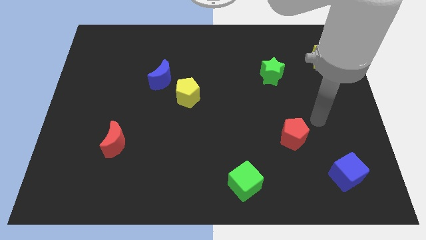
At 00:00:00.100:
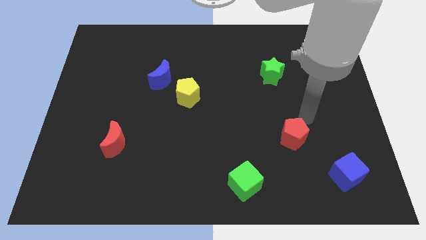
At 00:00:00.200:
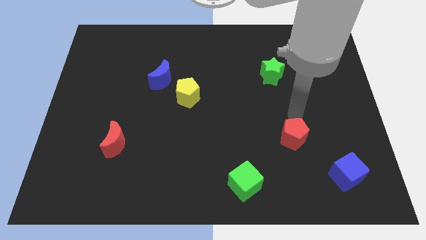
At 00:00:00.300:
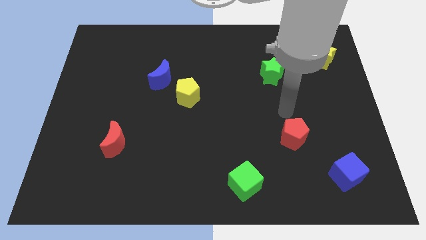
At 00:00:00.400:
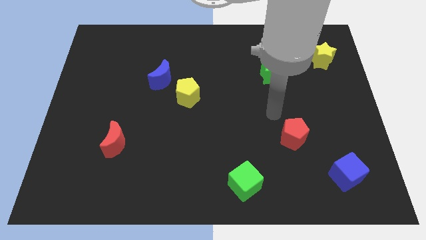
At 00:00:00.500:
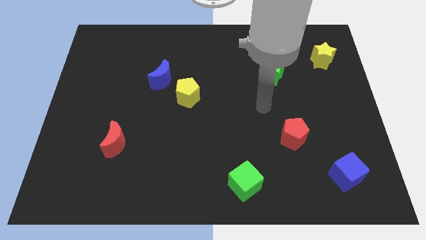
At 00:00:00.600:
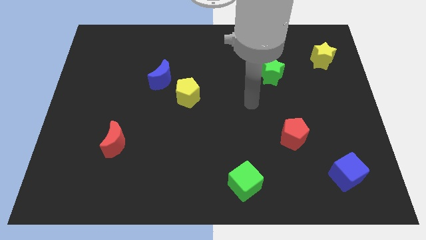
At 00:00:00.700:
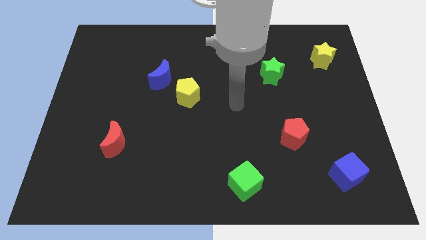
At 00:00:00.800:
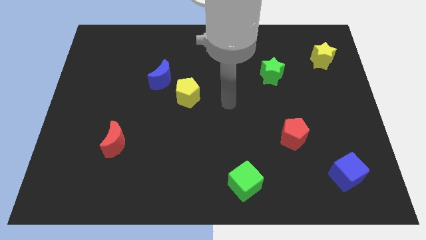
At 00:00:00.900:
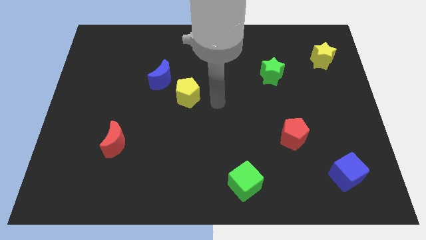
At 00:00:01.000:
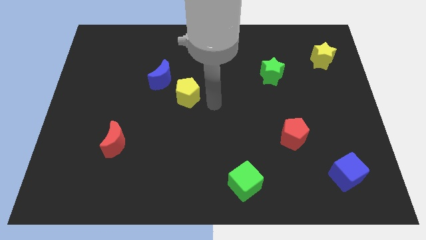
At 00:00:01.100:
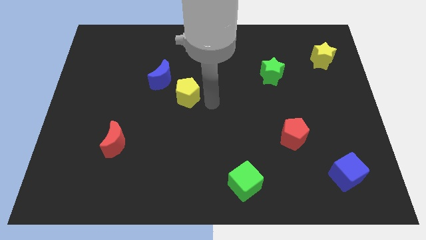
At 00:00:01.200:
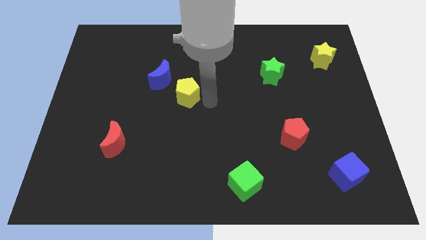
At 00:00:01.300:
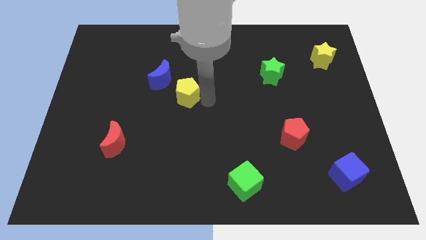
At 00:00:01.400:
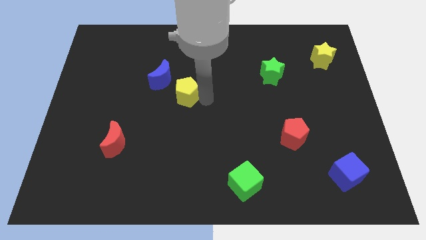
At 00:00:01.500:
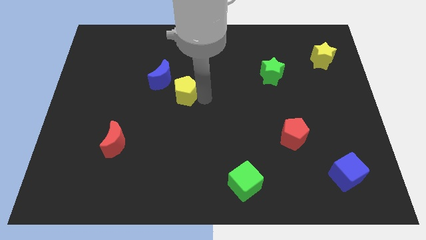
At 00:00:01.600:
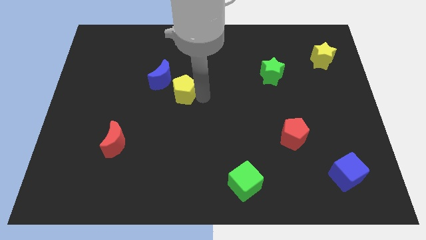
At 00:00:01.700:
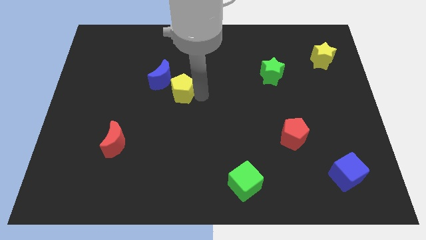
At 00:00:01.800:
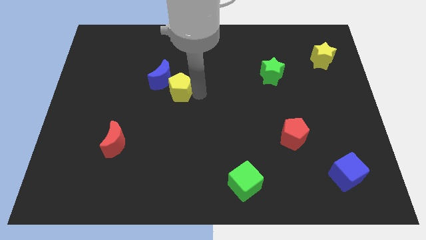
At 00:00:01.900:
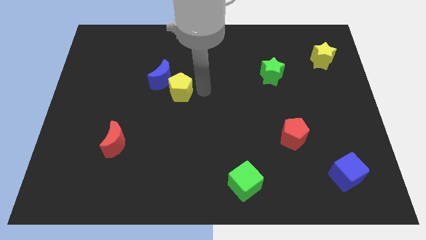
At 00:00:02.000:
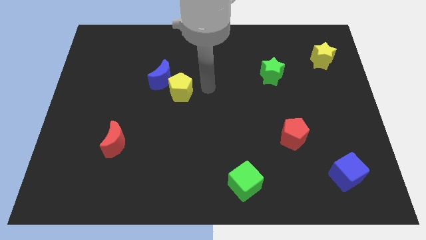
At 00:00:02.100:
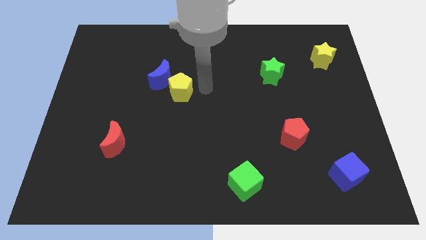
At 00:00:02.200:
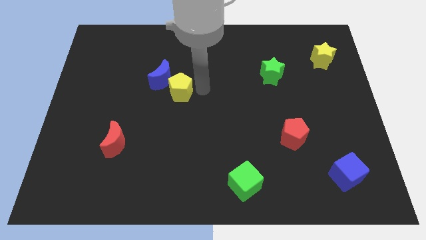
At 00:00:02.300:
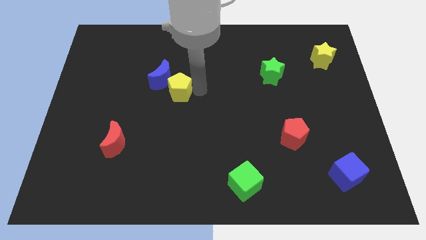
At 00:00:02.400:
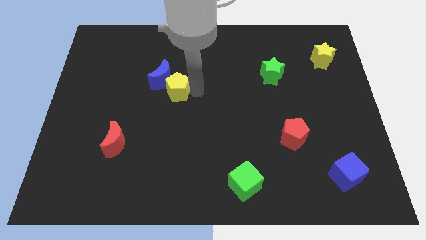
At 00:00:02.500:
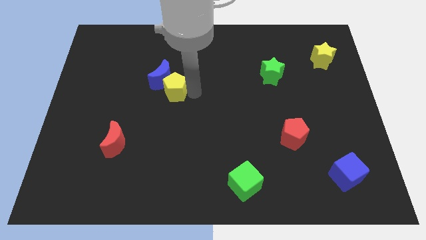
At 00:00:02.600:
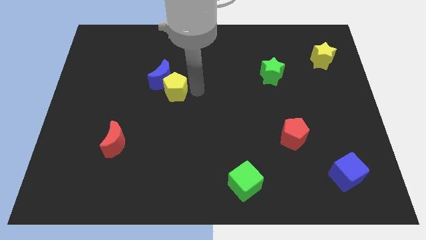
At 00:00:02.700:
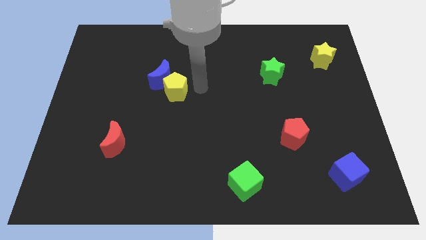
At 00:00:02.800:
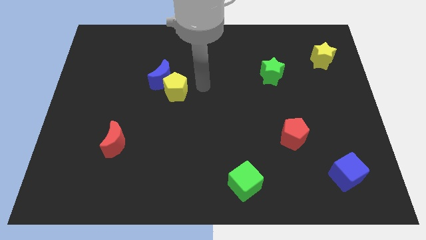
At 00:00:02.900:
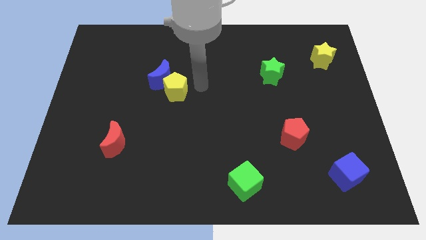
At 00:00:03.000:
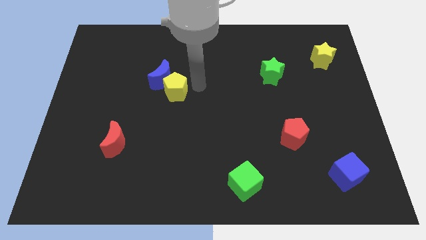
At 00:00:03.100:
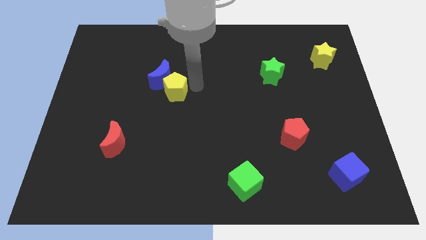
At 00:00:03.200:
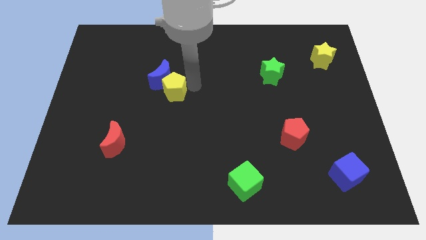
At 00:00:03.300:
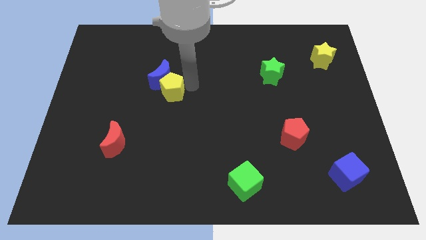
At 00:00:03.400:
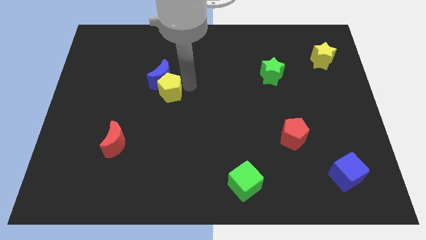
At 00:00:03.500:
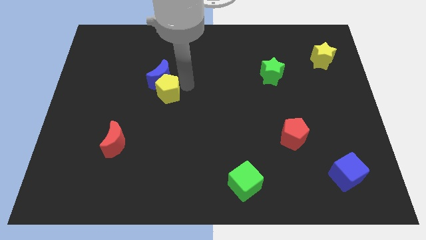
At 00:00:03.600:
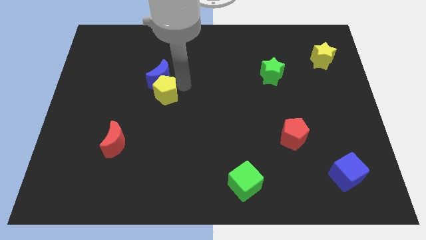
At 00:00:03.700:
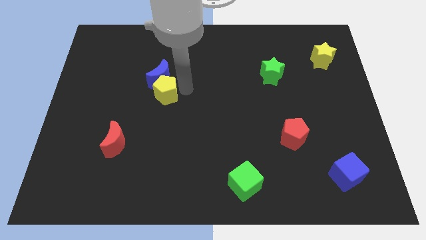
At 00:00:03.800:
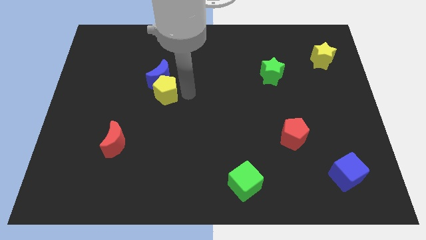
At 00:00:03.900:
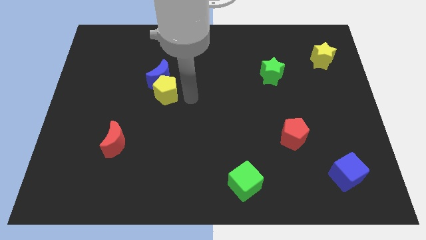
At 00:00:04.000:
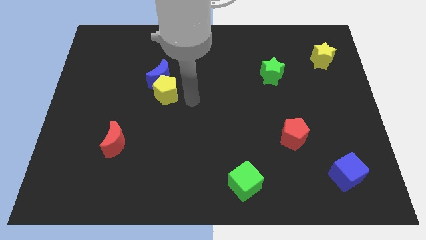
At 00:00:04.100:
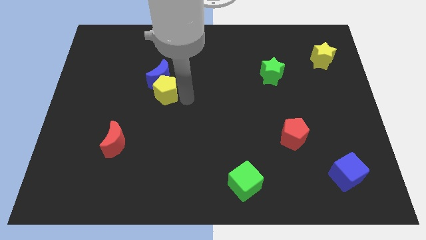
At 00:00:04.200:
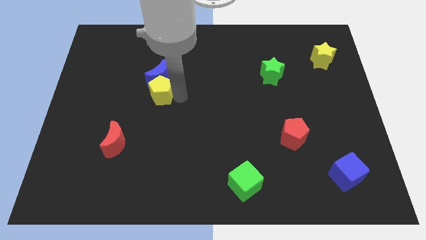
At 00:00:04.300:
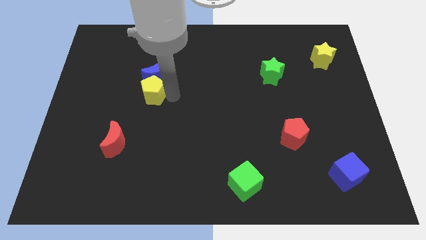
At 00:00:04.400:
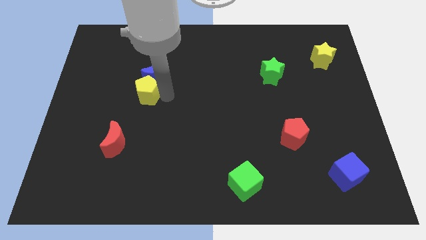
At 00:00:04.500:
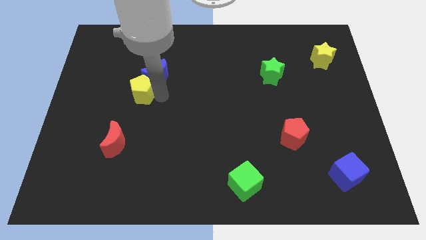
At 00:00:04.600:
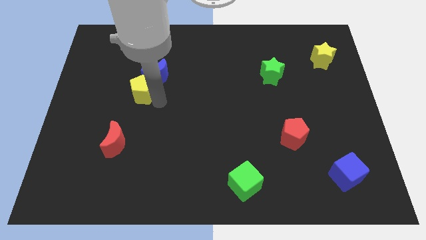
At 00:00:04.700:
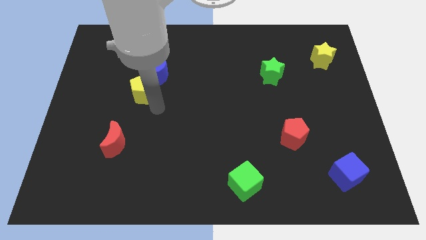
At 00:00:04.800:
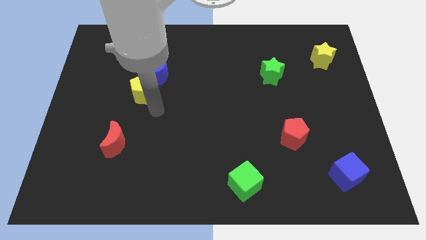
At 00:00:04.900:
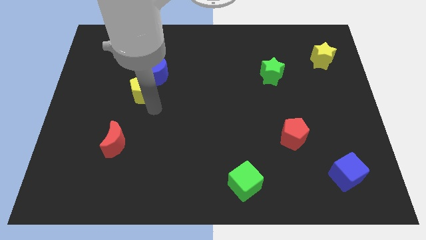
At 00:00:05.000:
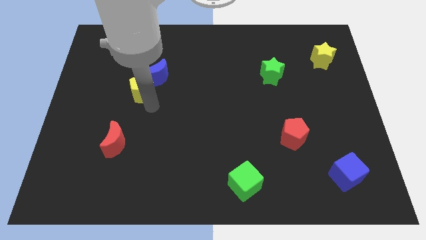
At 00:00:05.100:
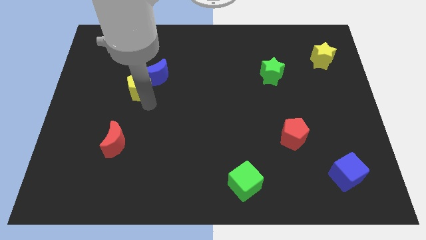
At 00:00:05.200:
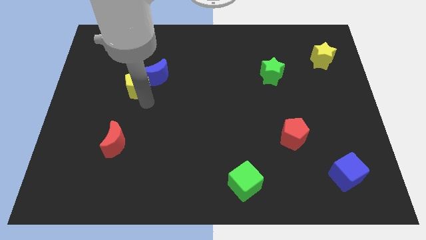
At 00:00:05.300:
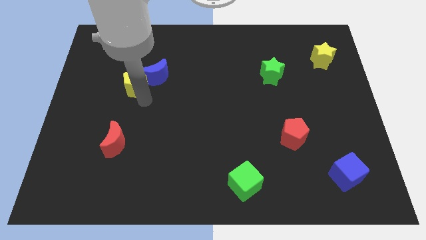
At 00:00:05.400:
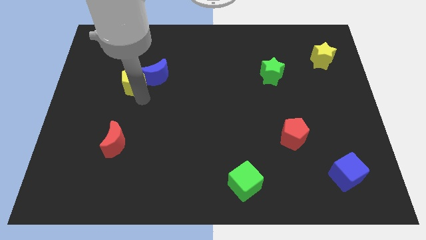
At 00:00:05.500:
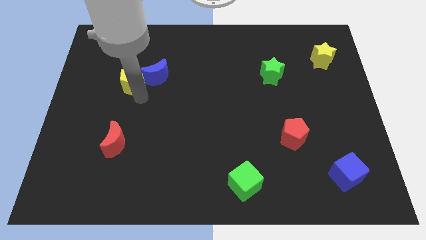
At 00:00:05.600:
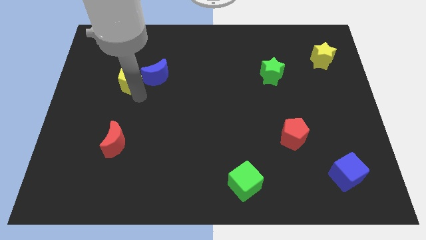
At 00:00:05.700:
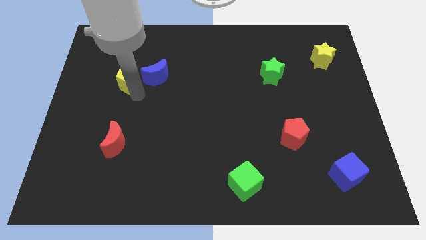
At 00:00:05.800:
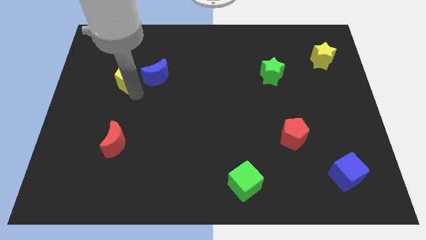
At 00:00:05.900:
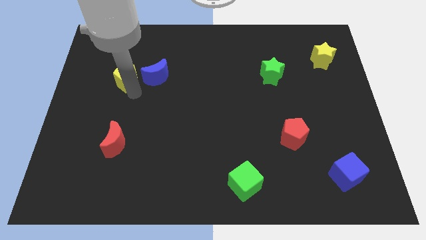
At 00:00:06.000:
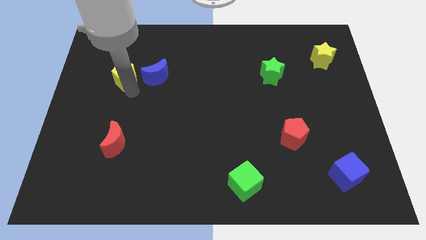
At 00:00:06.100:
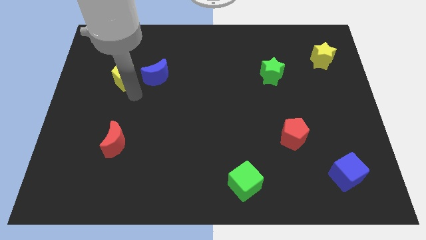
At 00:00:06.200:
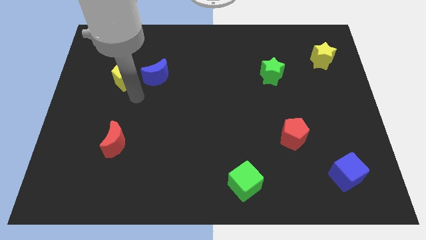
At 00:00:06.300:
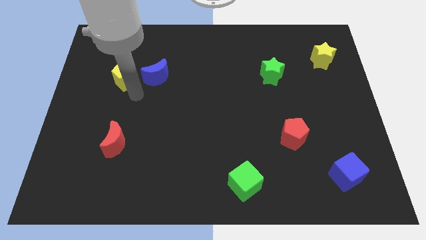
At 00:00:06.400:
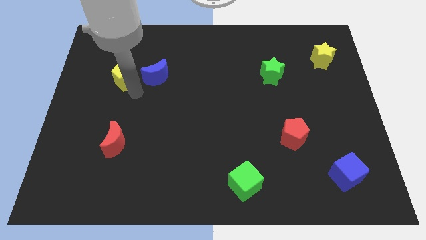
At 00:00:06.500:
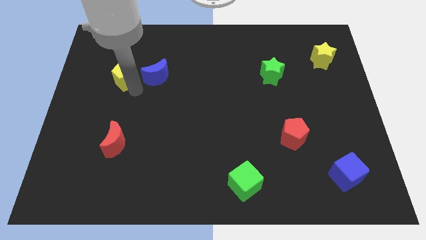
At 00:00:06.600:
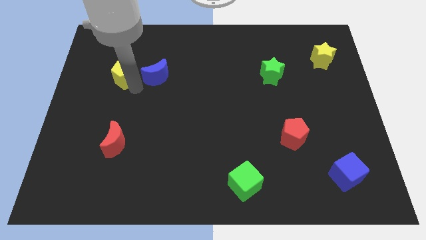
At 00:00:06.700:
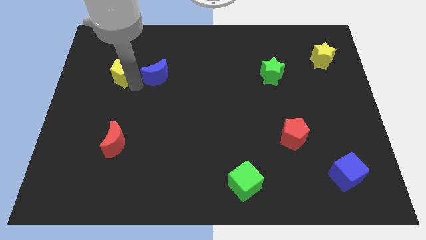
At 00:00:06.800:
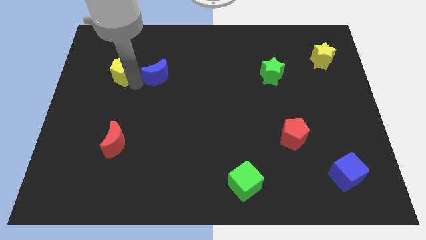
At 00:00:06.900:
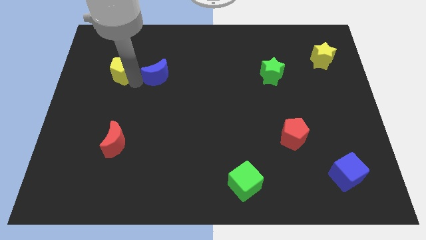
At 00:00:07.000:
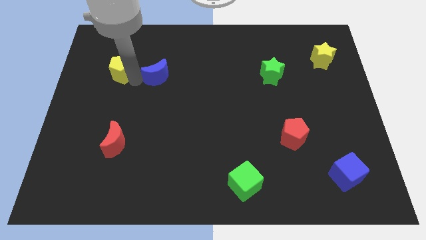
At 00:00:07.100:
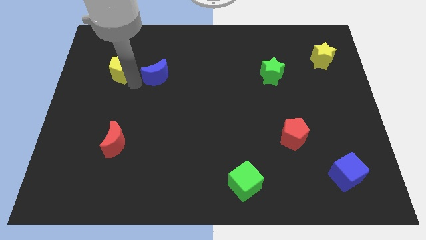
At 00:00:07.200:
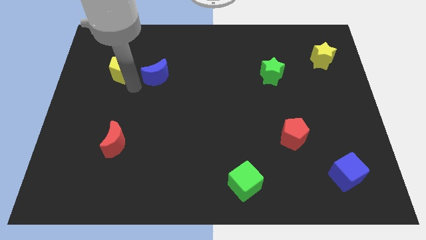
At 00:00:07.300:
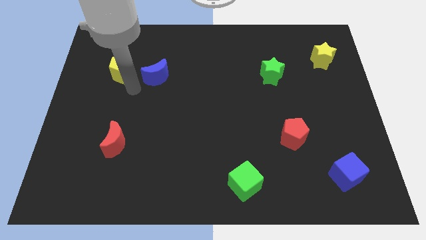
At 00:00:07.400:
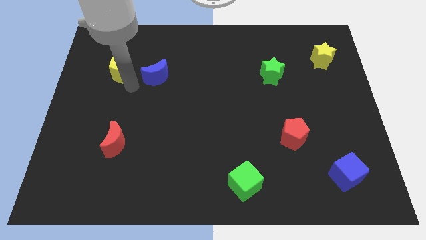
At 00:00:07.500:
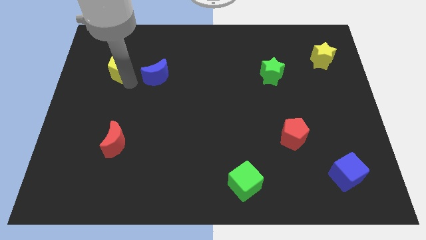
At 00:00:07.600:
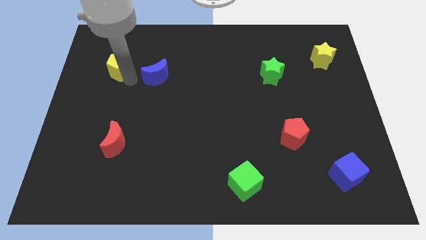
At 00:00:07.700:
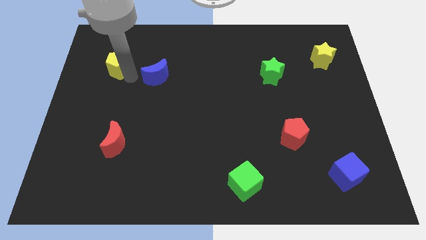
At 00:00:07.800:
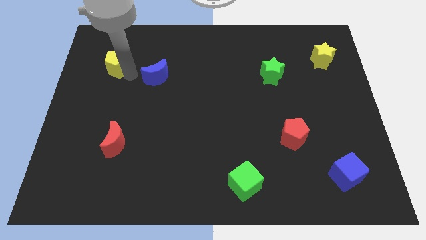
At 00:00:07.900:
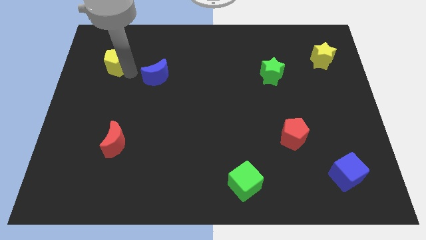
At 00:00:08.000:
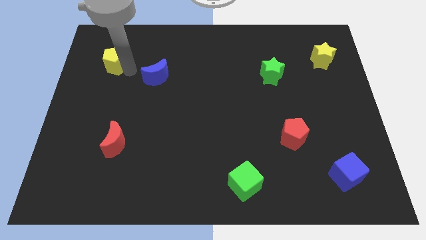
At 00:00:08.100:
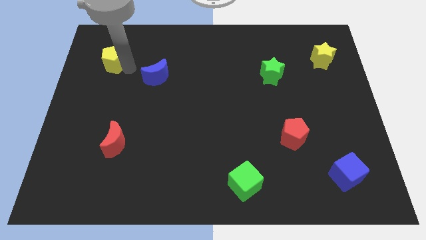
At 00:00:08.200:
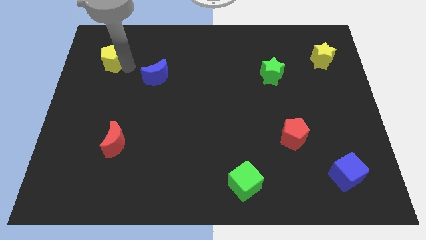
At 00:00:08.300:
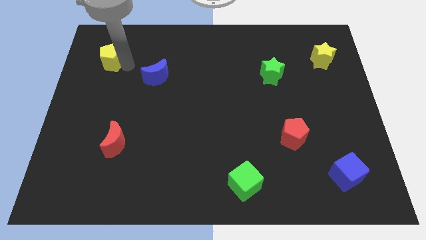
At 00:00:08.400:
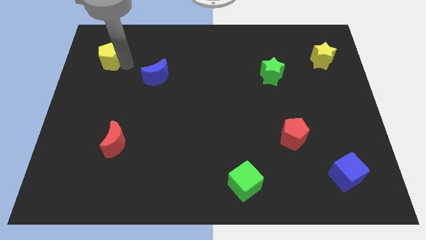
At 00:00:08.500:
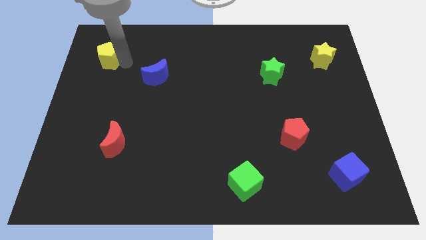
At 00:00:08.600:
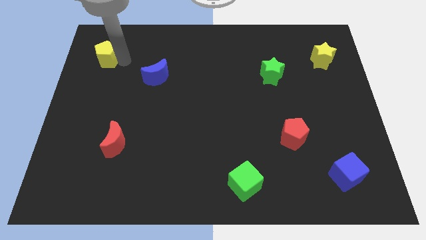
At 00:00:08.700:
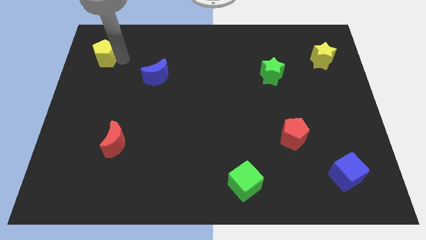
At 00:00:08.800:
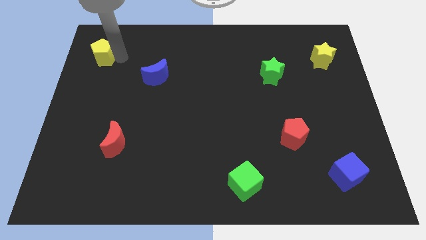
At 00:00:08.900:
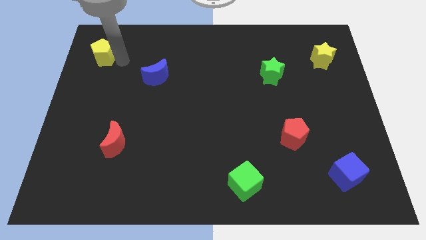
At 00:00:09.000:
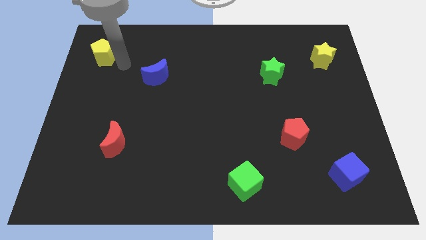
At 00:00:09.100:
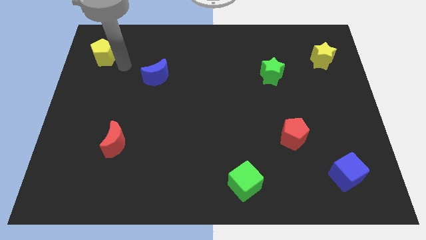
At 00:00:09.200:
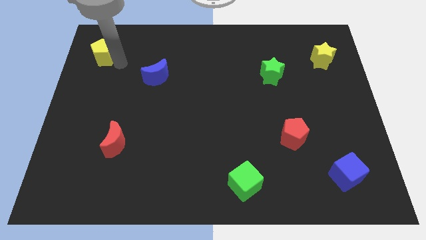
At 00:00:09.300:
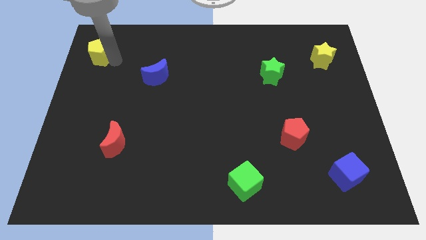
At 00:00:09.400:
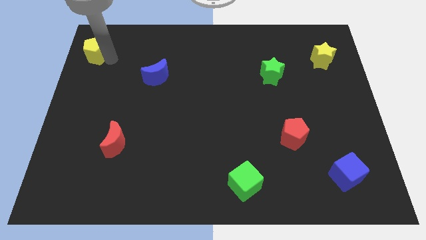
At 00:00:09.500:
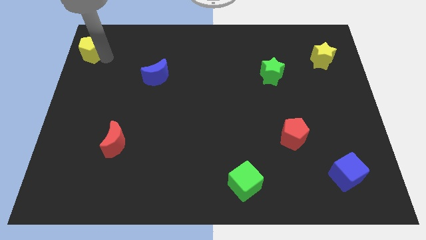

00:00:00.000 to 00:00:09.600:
move the yellow pentagon to the upper left corner
